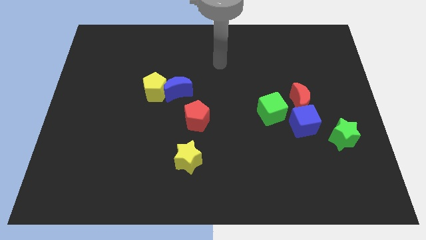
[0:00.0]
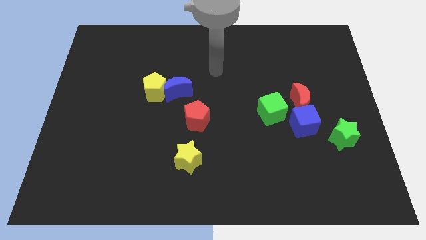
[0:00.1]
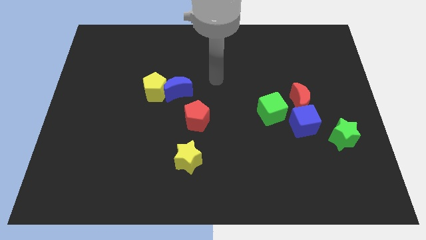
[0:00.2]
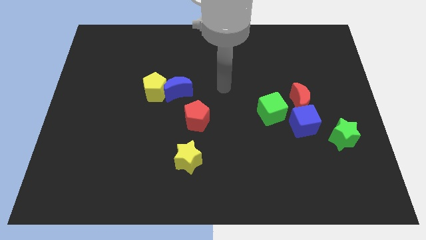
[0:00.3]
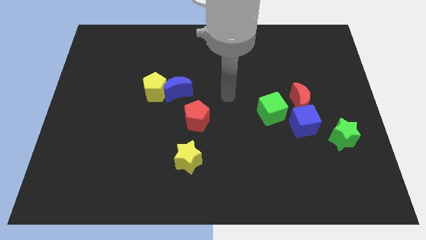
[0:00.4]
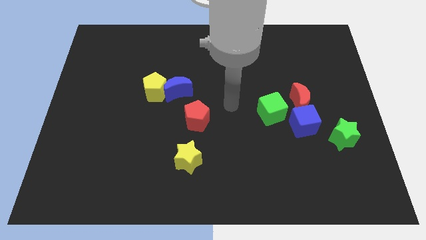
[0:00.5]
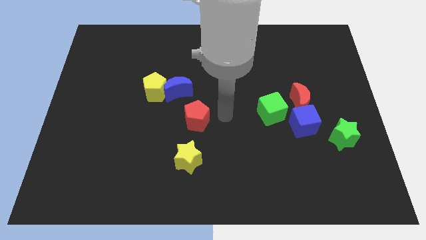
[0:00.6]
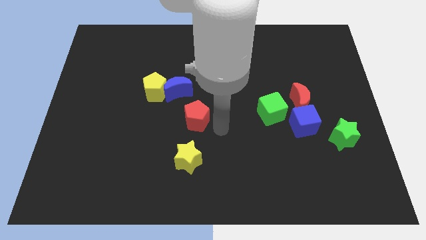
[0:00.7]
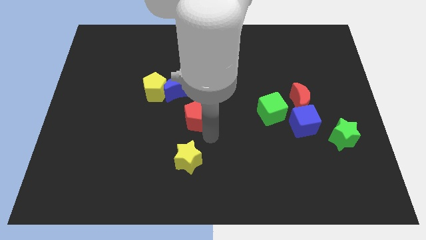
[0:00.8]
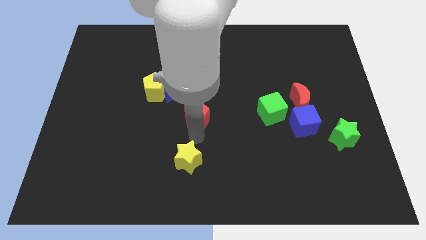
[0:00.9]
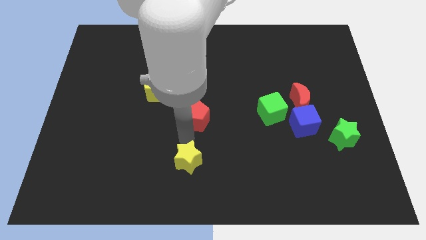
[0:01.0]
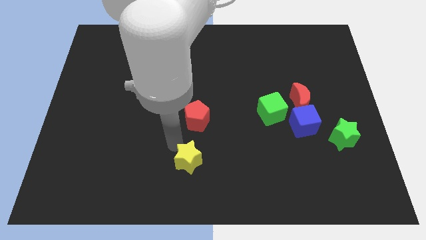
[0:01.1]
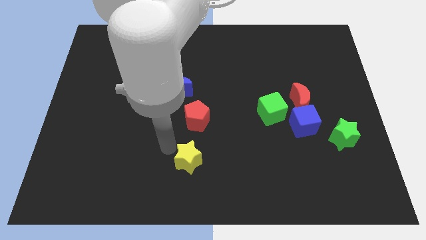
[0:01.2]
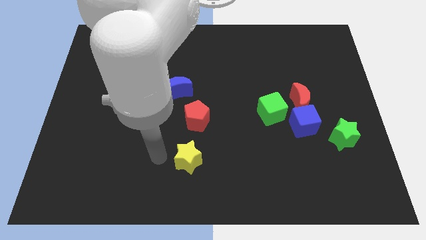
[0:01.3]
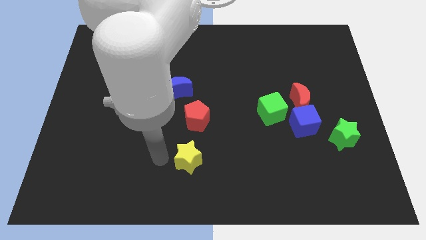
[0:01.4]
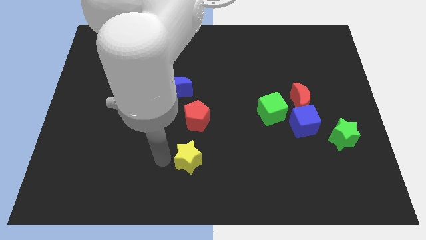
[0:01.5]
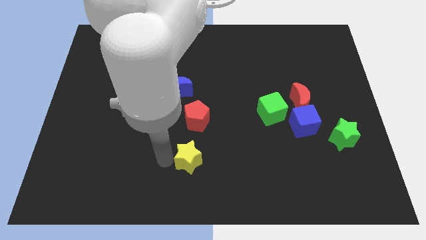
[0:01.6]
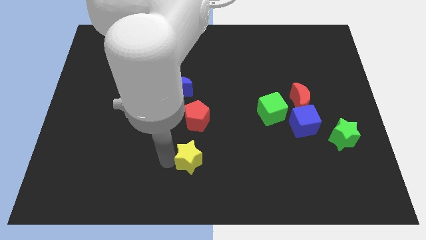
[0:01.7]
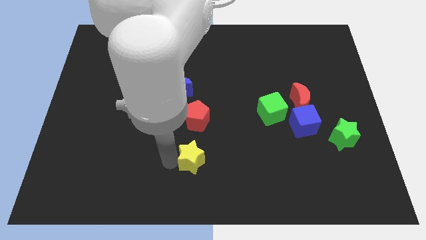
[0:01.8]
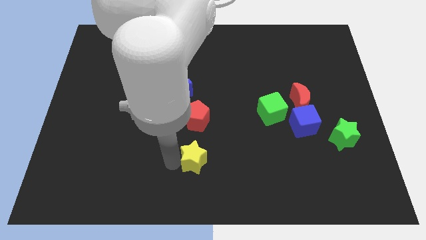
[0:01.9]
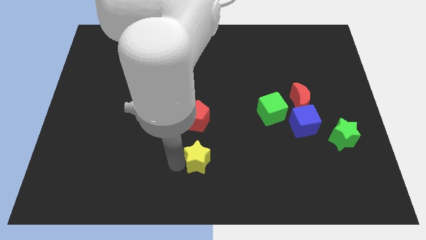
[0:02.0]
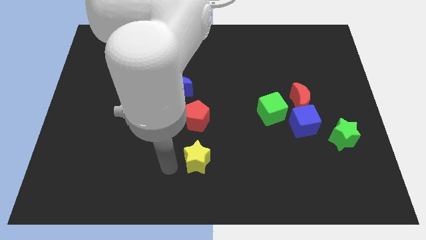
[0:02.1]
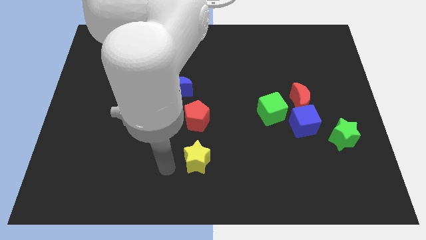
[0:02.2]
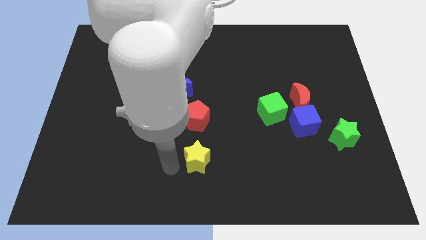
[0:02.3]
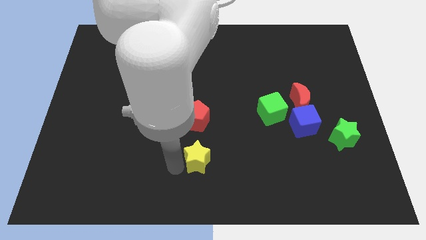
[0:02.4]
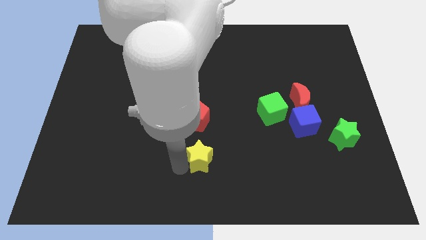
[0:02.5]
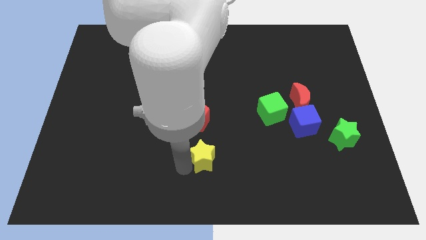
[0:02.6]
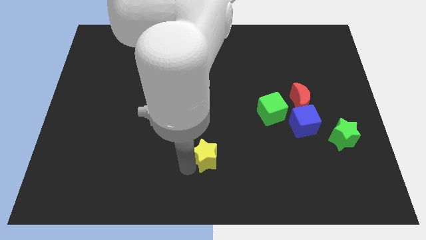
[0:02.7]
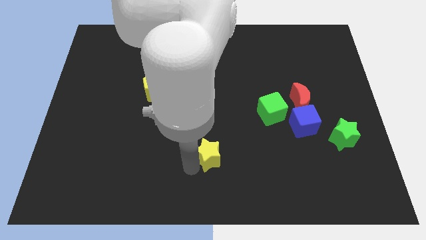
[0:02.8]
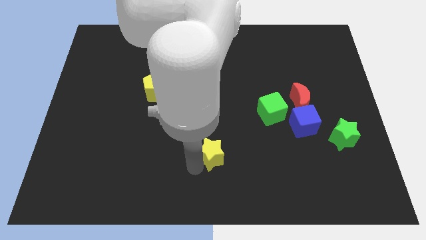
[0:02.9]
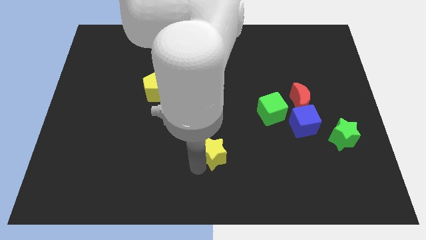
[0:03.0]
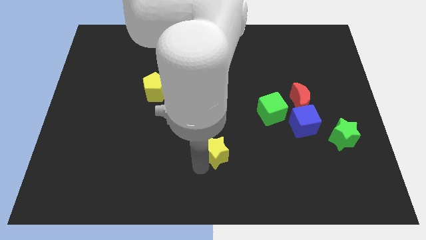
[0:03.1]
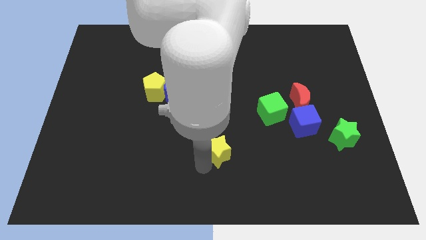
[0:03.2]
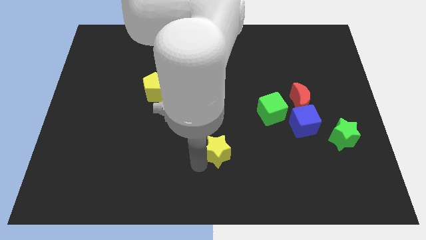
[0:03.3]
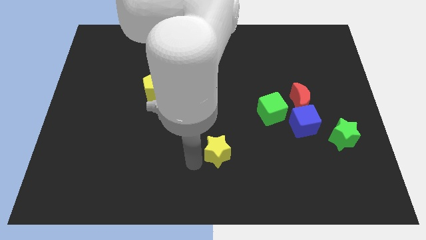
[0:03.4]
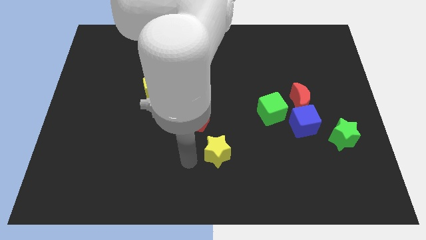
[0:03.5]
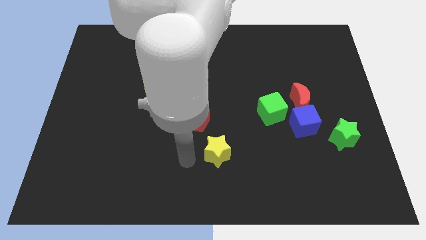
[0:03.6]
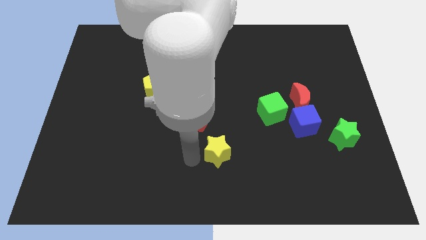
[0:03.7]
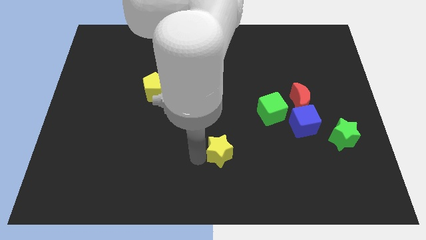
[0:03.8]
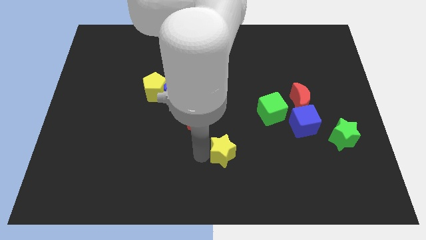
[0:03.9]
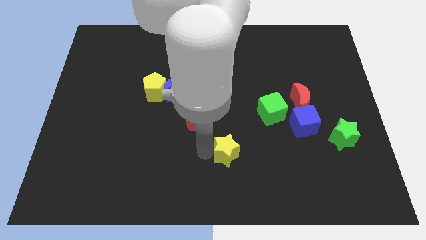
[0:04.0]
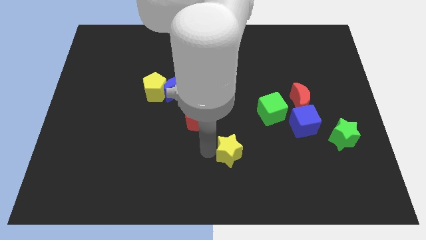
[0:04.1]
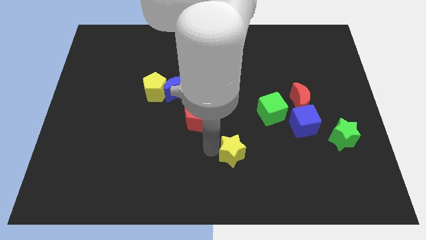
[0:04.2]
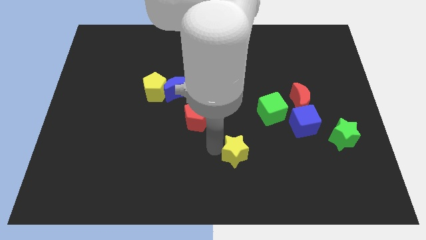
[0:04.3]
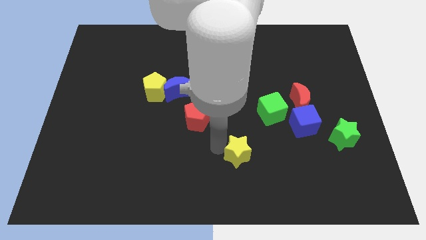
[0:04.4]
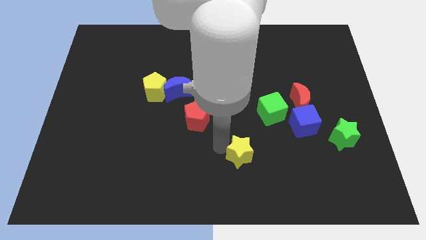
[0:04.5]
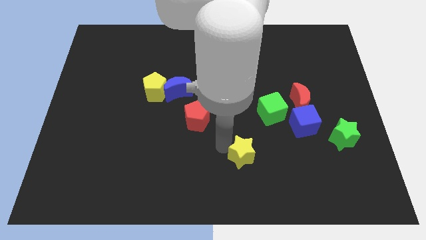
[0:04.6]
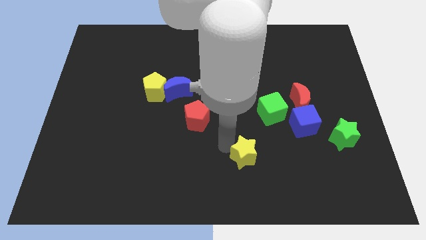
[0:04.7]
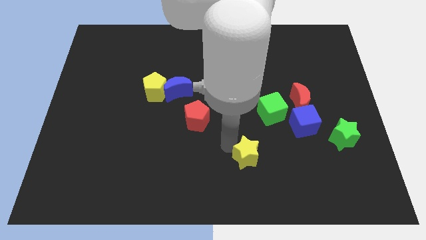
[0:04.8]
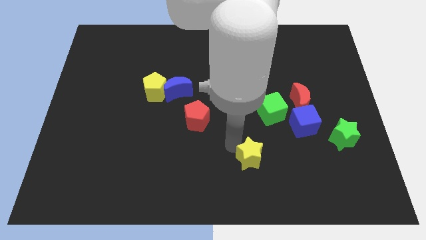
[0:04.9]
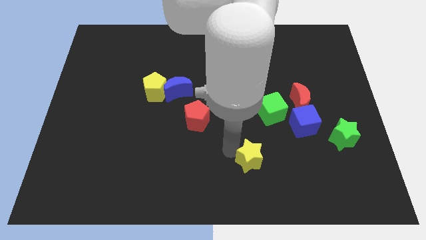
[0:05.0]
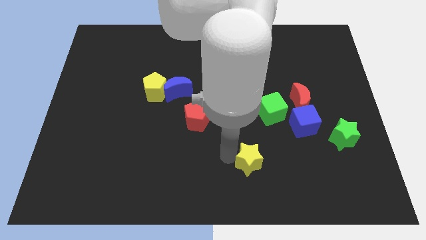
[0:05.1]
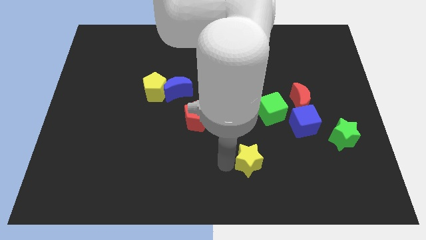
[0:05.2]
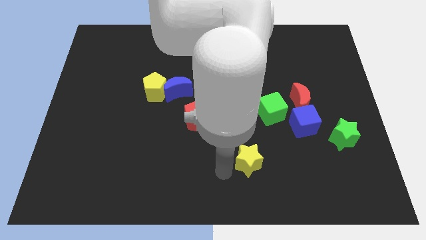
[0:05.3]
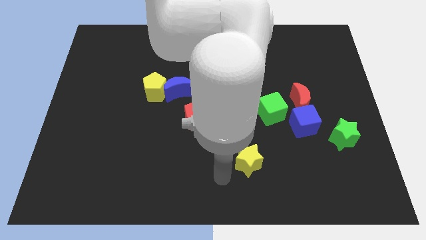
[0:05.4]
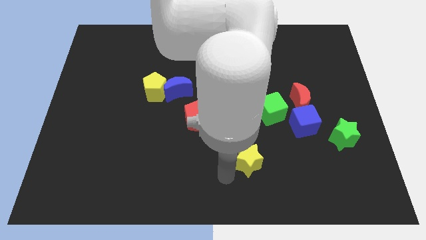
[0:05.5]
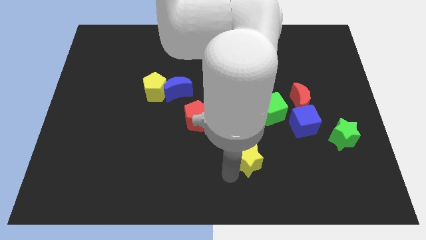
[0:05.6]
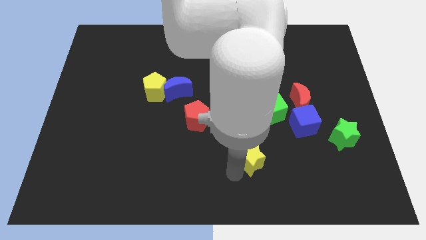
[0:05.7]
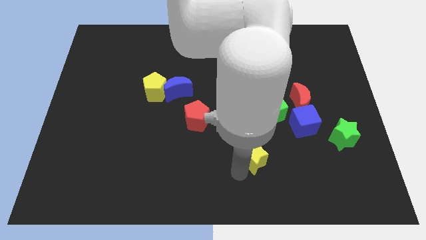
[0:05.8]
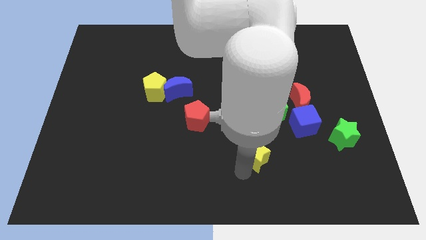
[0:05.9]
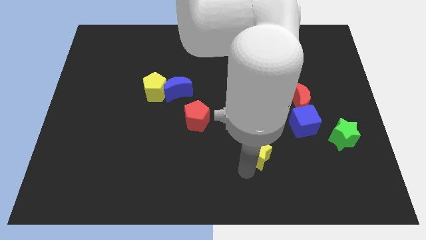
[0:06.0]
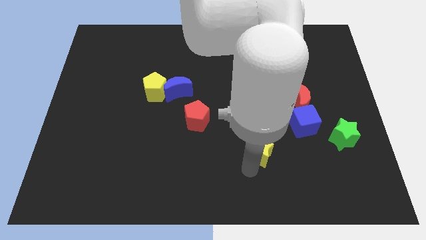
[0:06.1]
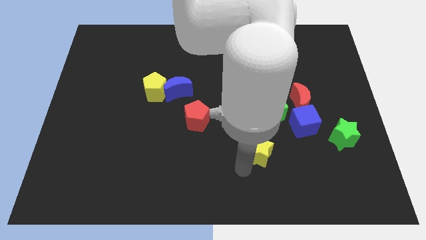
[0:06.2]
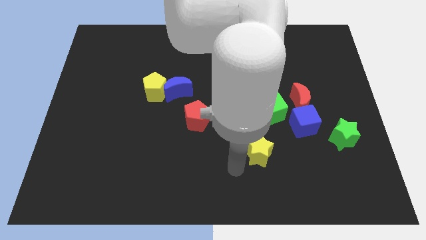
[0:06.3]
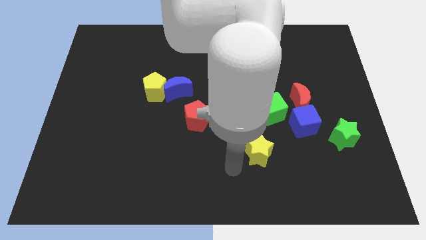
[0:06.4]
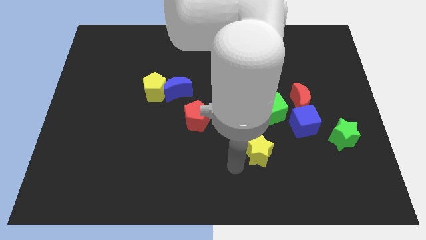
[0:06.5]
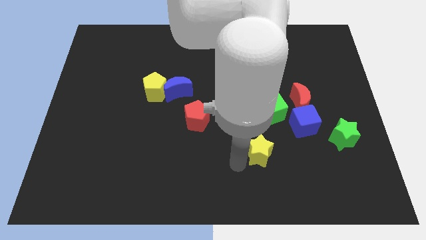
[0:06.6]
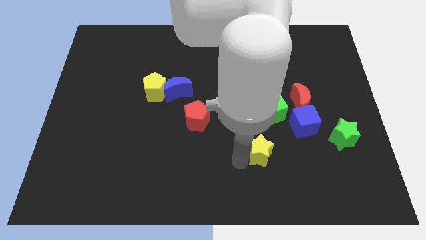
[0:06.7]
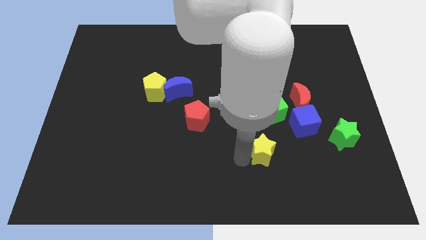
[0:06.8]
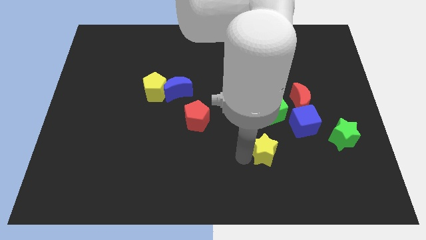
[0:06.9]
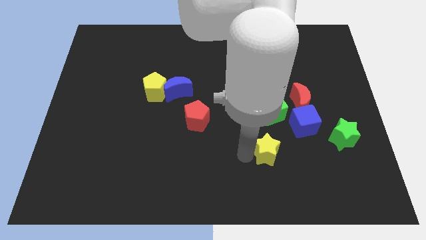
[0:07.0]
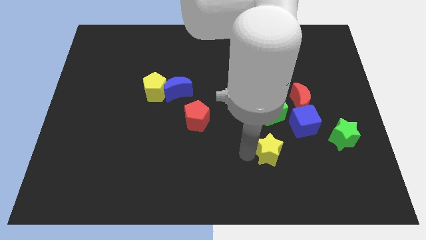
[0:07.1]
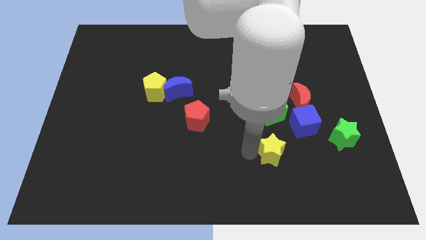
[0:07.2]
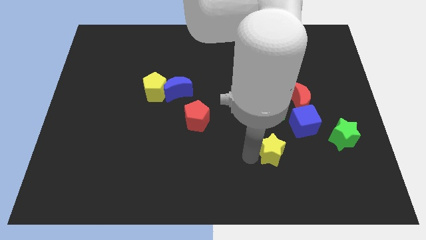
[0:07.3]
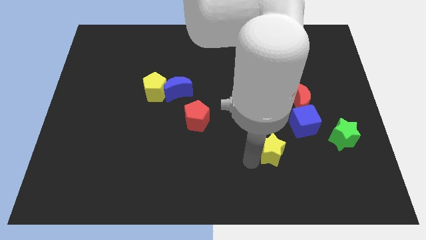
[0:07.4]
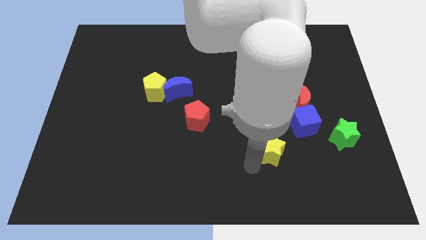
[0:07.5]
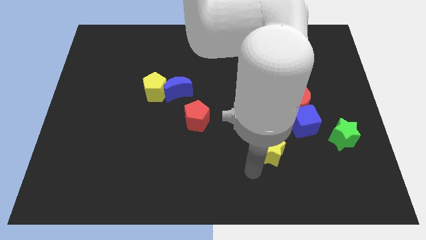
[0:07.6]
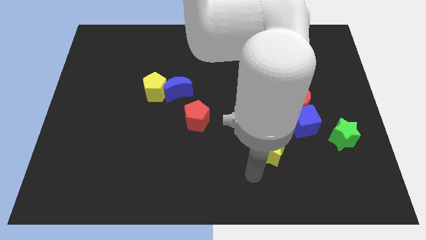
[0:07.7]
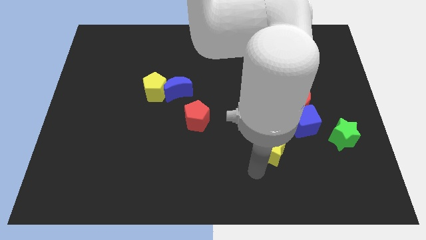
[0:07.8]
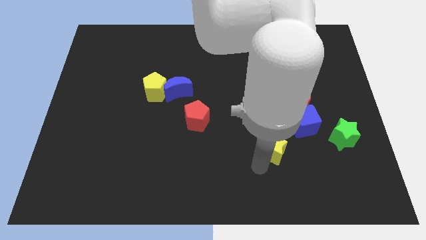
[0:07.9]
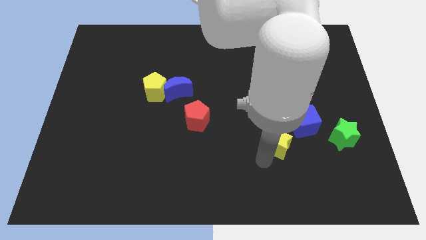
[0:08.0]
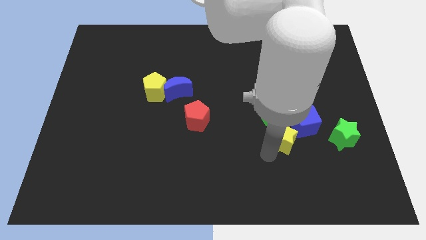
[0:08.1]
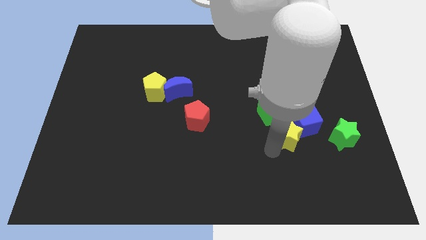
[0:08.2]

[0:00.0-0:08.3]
push the yellow star towards the blue cube
